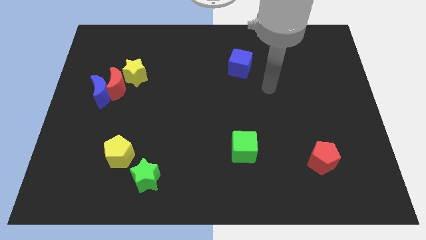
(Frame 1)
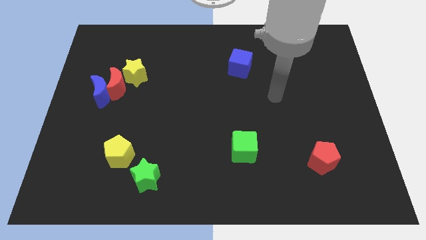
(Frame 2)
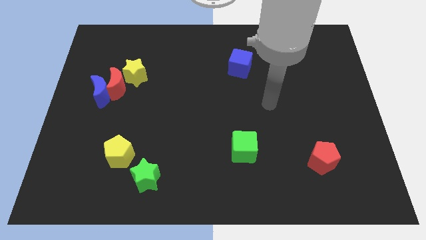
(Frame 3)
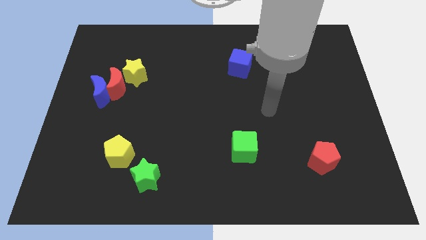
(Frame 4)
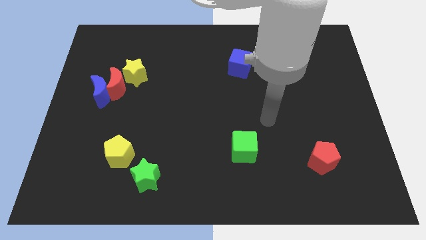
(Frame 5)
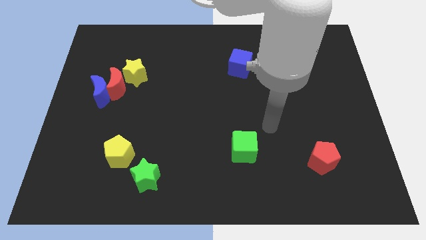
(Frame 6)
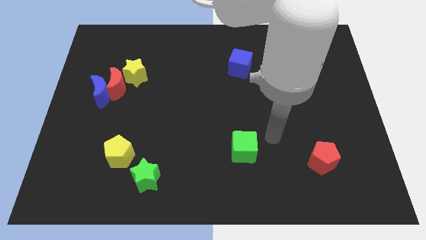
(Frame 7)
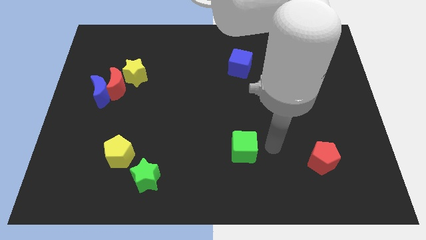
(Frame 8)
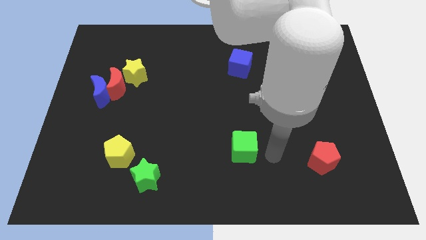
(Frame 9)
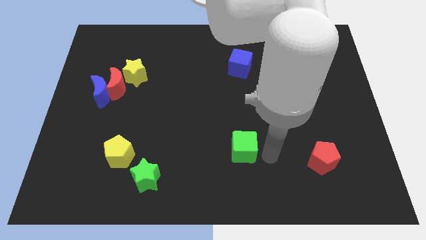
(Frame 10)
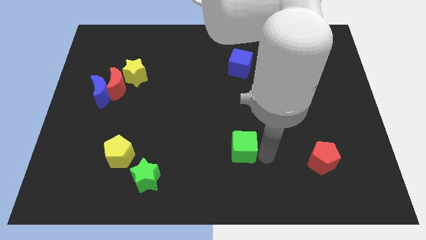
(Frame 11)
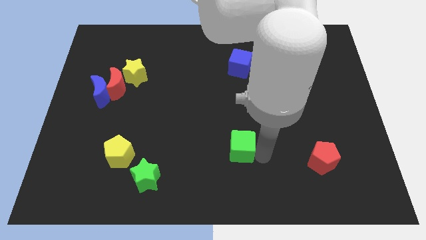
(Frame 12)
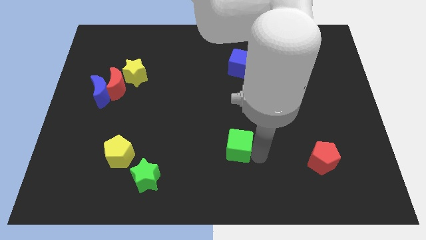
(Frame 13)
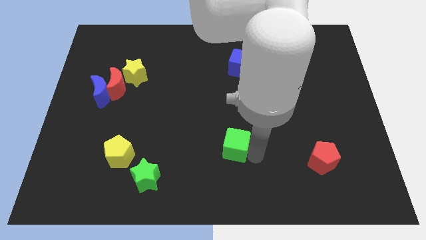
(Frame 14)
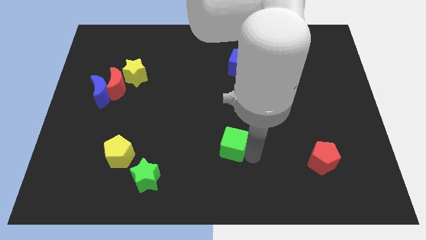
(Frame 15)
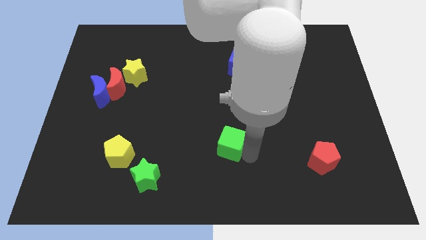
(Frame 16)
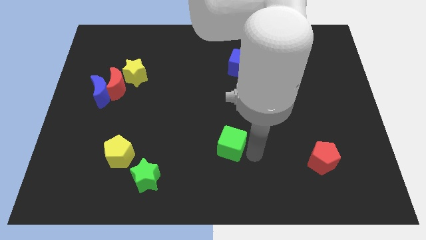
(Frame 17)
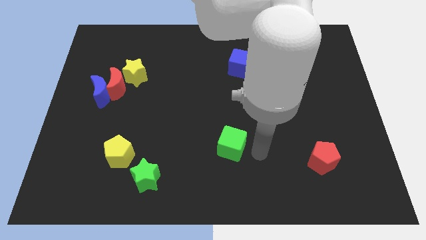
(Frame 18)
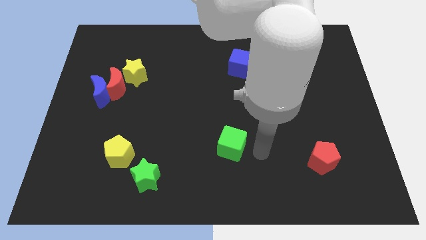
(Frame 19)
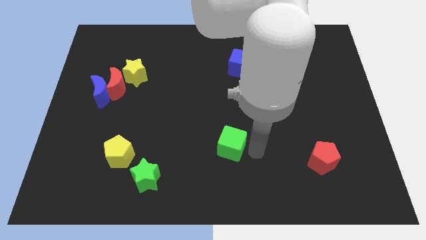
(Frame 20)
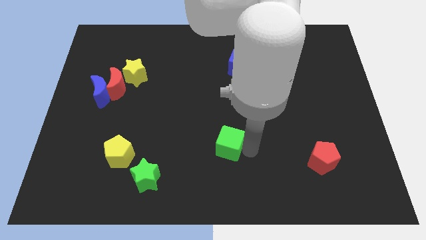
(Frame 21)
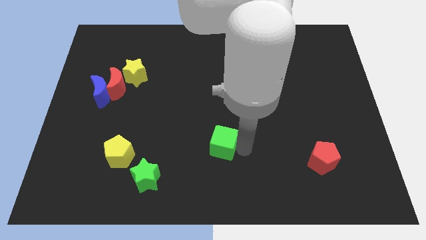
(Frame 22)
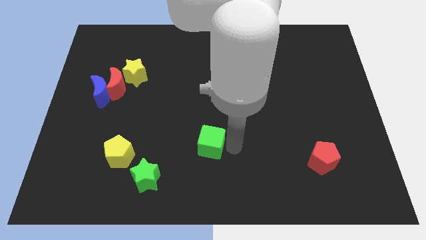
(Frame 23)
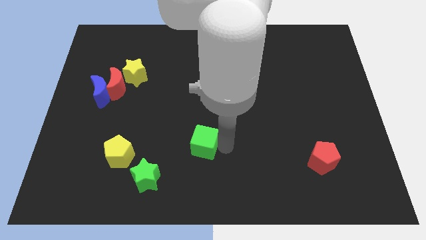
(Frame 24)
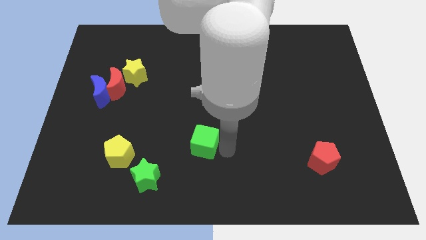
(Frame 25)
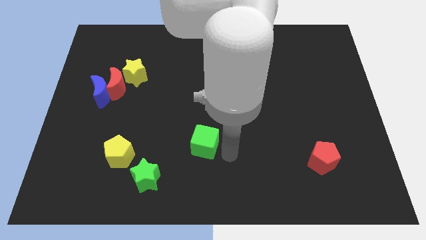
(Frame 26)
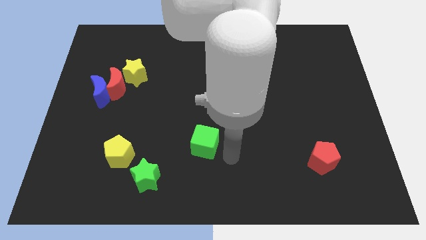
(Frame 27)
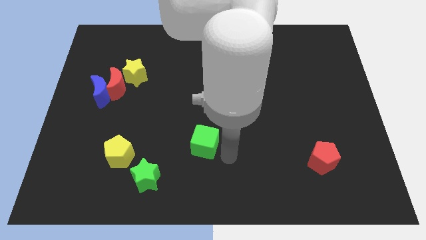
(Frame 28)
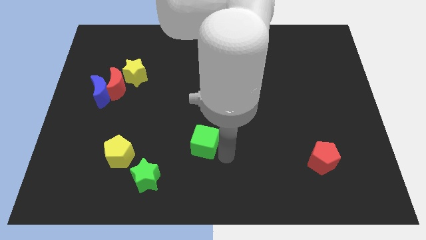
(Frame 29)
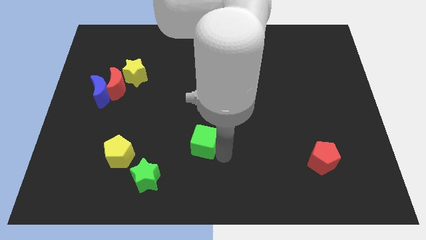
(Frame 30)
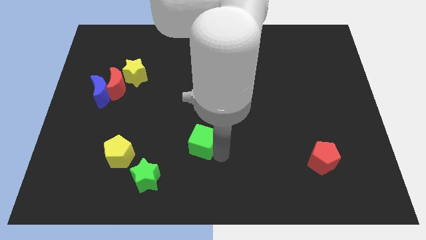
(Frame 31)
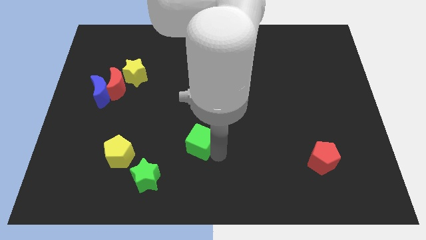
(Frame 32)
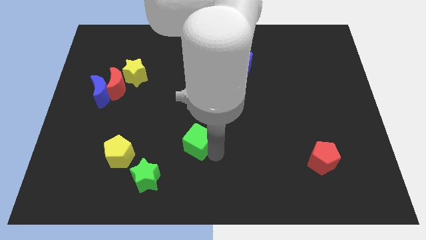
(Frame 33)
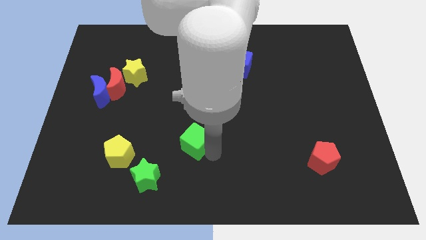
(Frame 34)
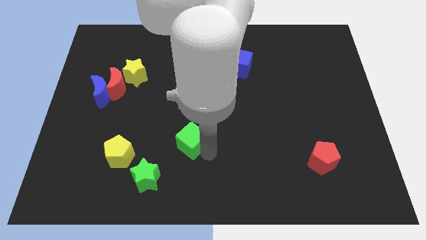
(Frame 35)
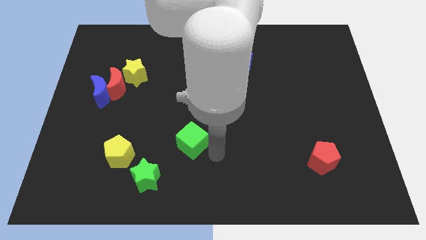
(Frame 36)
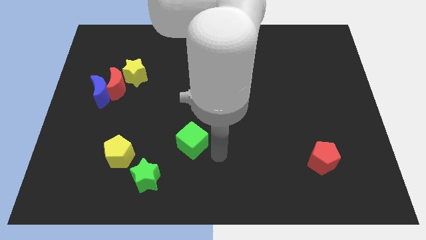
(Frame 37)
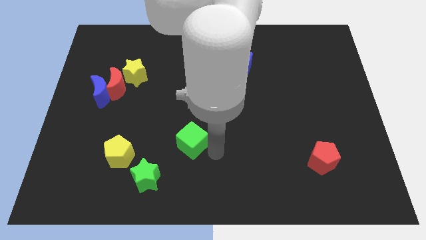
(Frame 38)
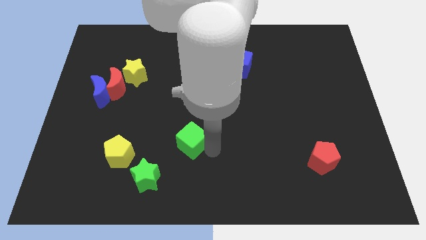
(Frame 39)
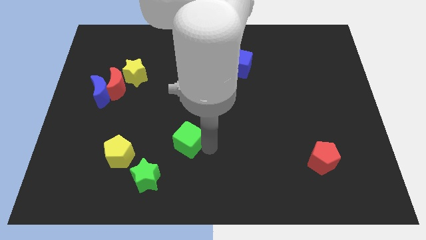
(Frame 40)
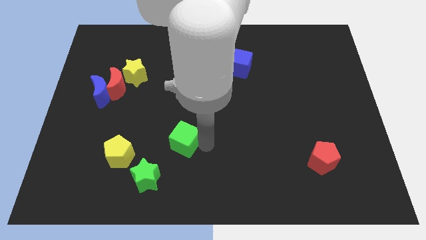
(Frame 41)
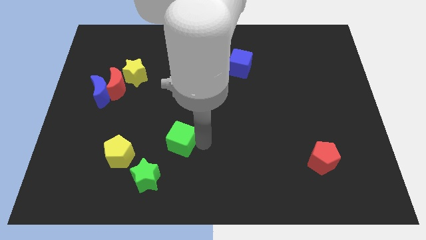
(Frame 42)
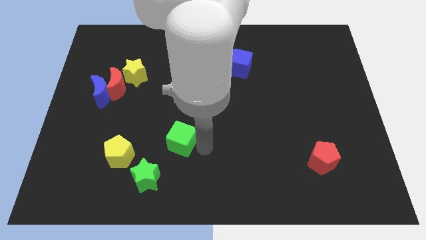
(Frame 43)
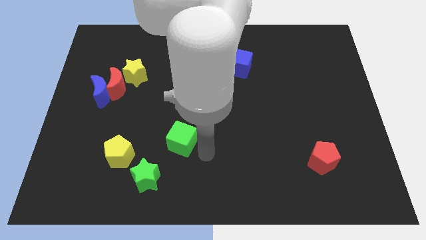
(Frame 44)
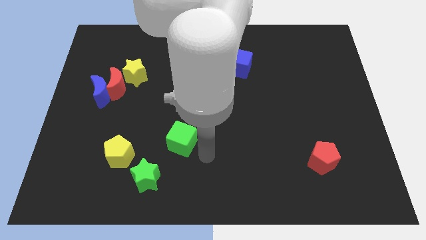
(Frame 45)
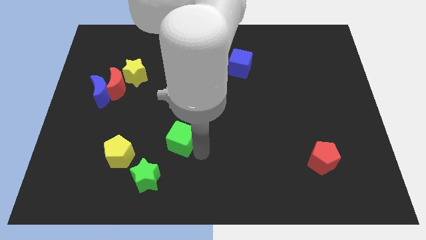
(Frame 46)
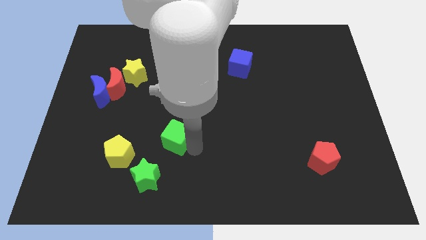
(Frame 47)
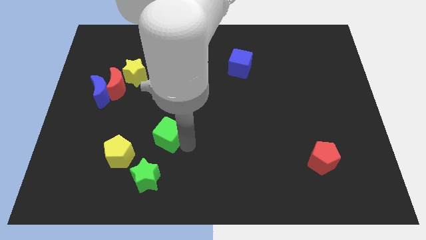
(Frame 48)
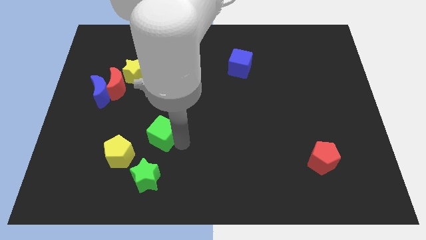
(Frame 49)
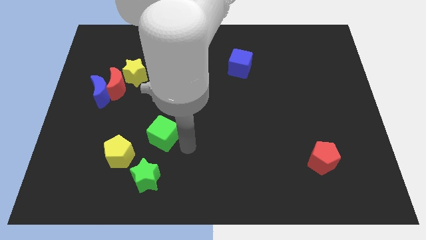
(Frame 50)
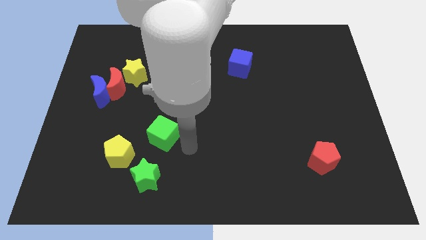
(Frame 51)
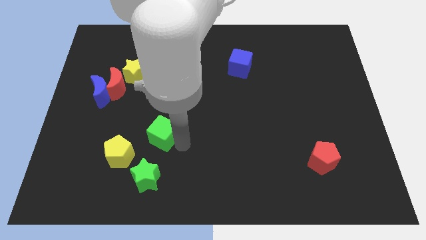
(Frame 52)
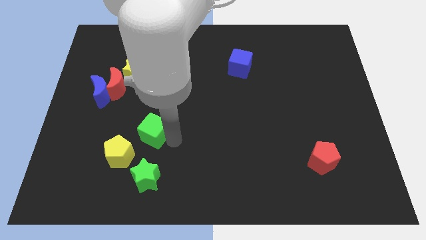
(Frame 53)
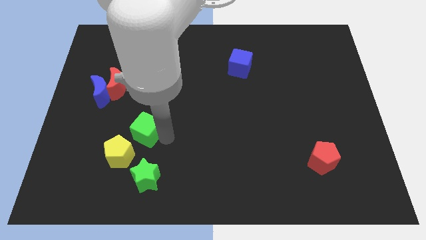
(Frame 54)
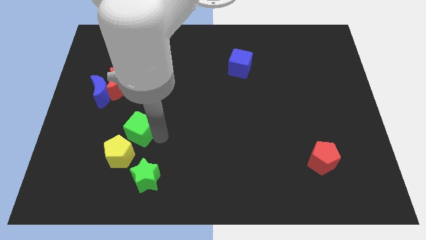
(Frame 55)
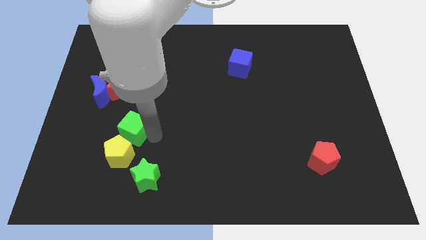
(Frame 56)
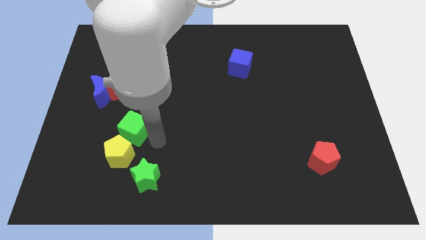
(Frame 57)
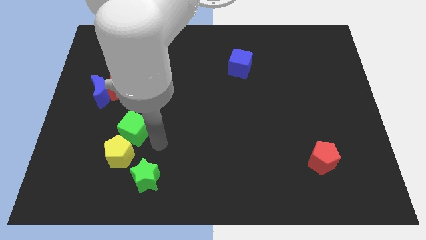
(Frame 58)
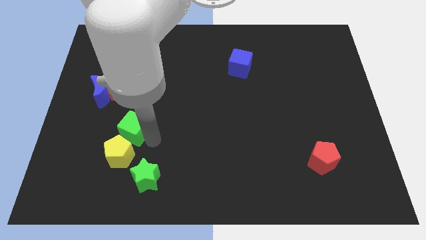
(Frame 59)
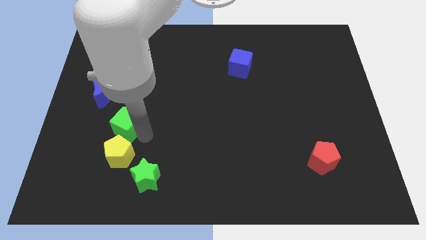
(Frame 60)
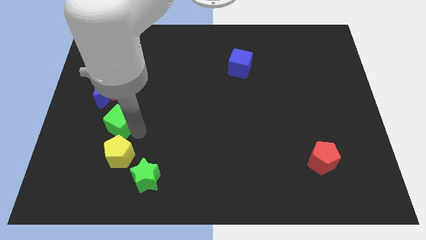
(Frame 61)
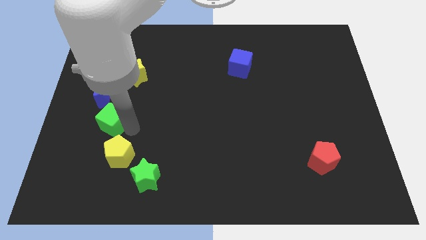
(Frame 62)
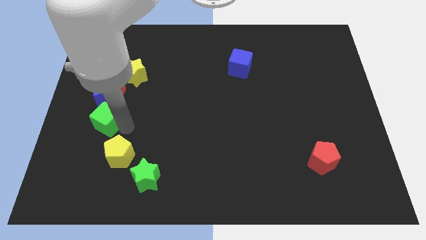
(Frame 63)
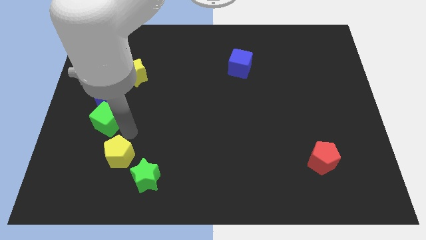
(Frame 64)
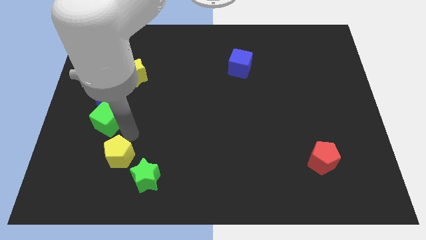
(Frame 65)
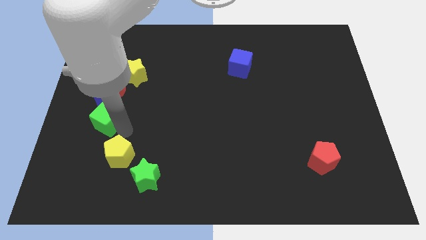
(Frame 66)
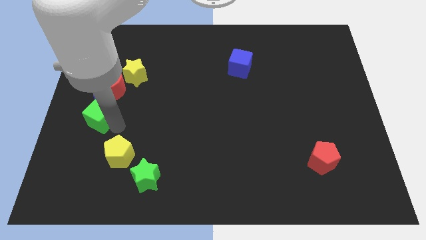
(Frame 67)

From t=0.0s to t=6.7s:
put the green cube to the left side of the board
